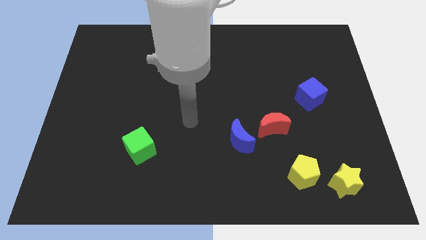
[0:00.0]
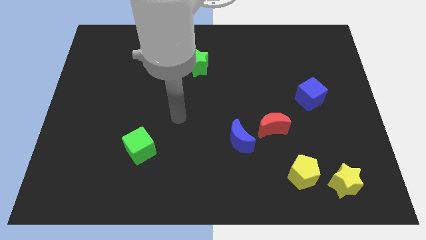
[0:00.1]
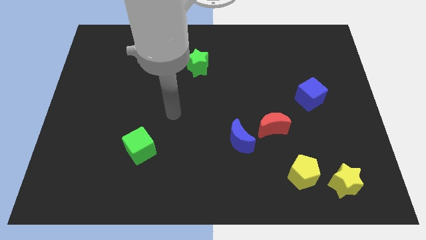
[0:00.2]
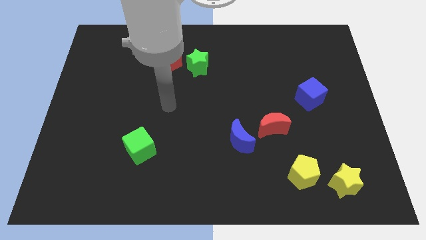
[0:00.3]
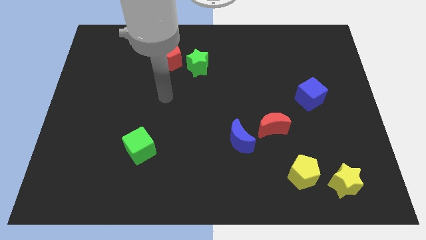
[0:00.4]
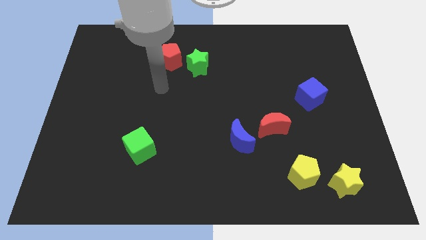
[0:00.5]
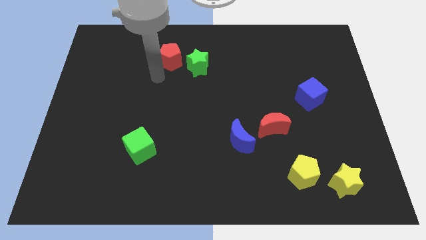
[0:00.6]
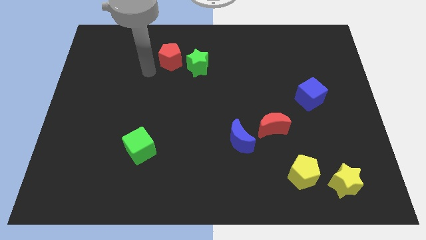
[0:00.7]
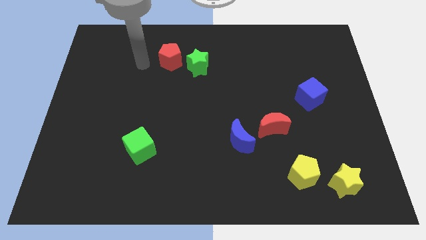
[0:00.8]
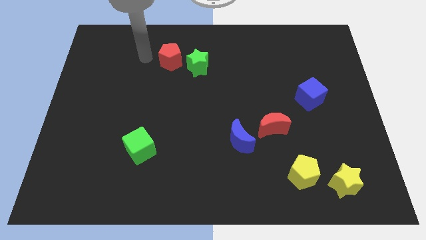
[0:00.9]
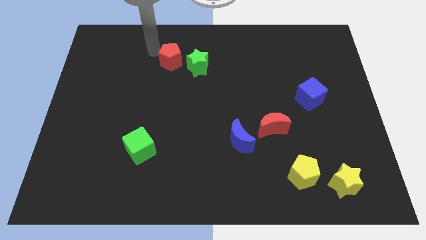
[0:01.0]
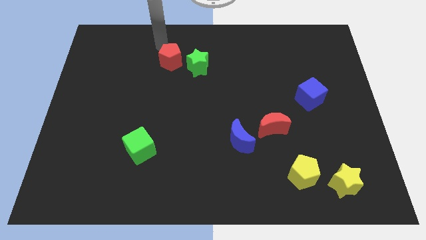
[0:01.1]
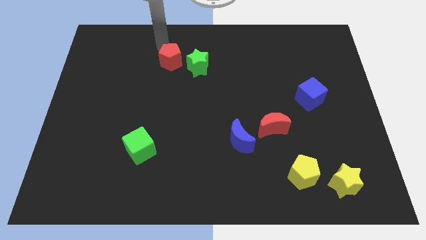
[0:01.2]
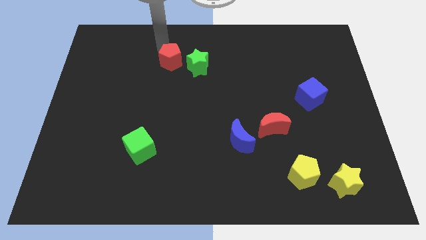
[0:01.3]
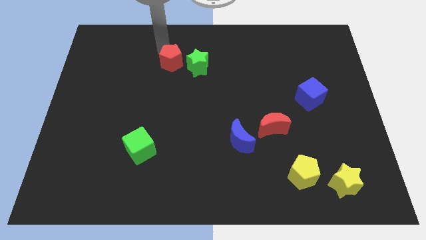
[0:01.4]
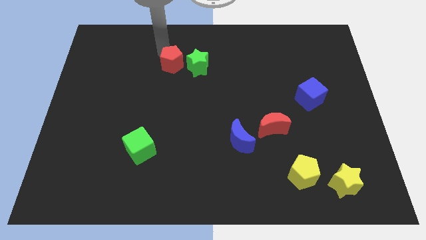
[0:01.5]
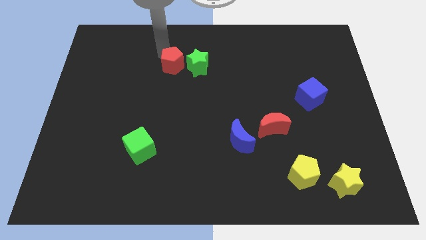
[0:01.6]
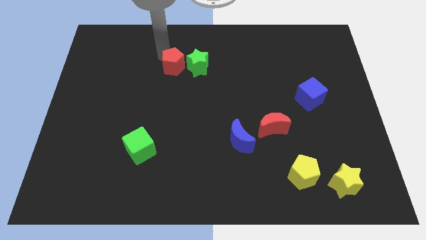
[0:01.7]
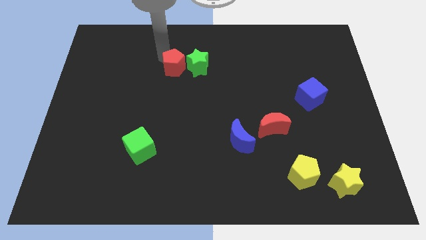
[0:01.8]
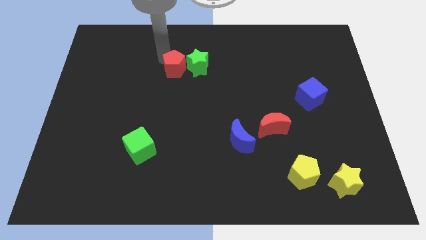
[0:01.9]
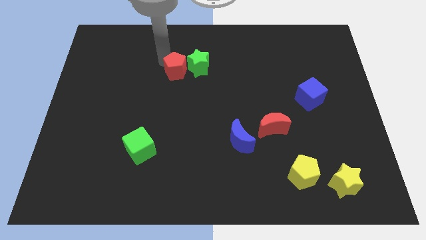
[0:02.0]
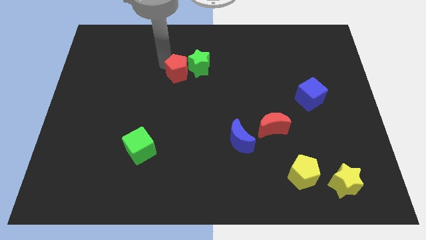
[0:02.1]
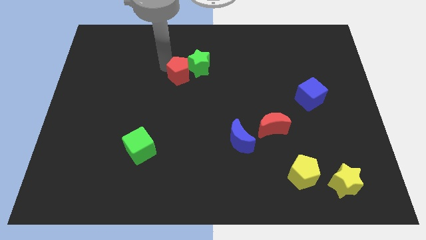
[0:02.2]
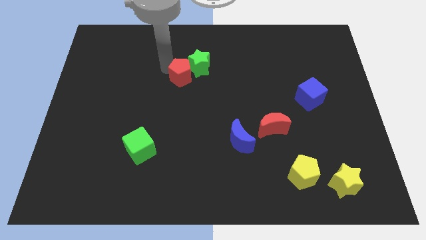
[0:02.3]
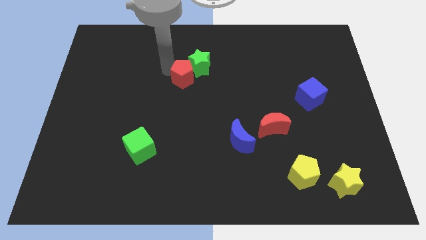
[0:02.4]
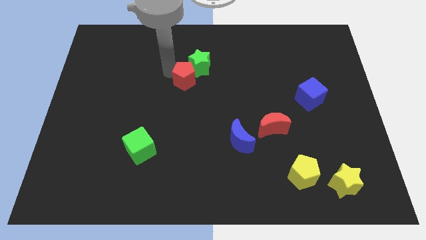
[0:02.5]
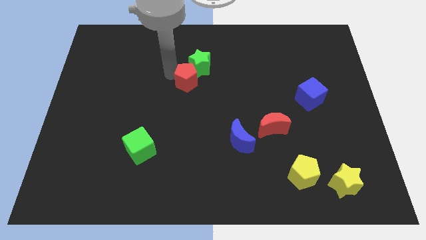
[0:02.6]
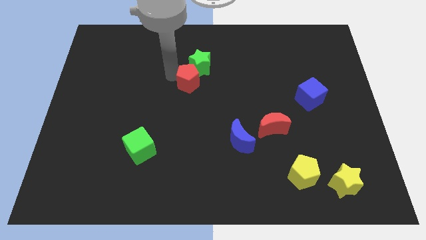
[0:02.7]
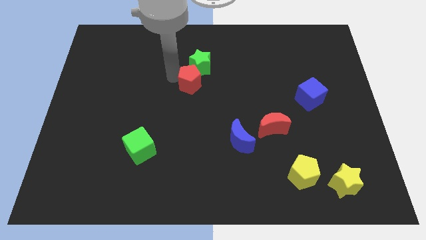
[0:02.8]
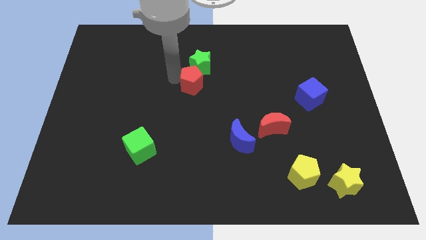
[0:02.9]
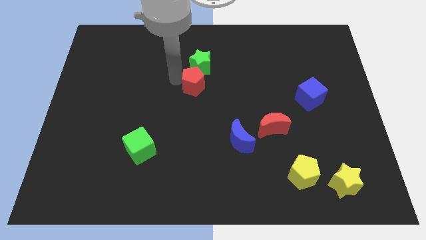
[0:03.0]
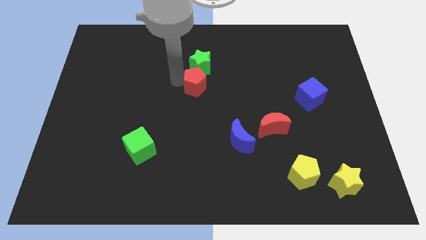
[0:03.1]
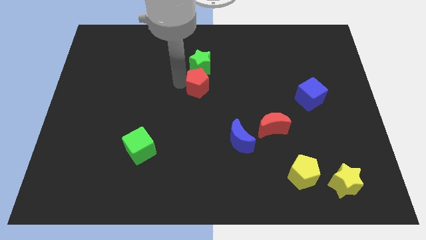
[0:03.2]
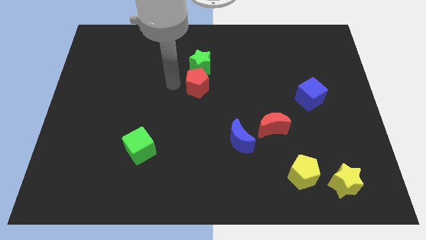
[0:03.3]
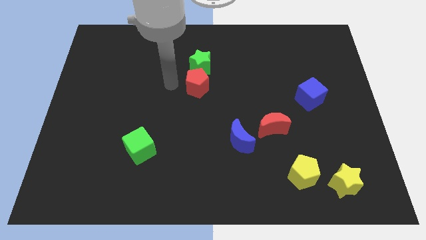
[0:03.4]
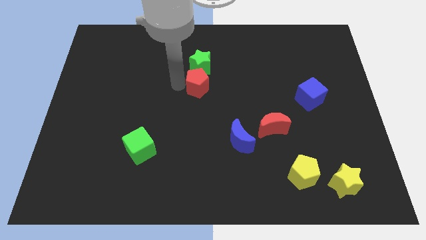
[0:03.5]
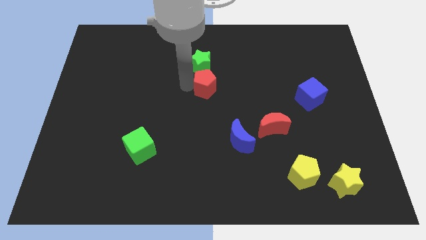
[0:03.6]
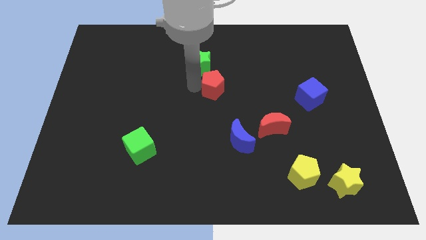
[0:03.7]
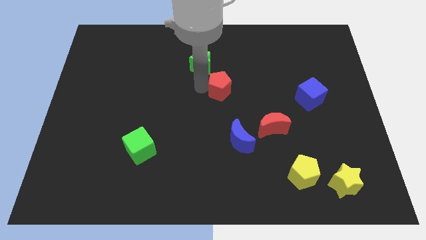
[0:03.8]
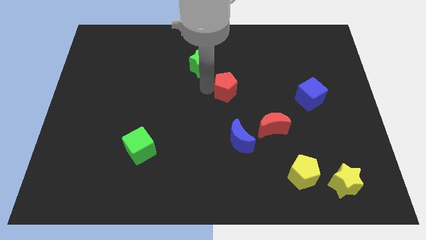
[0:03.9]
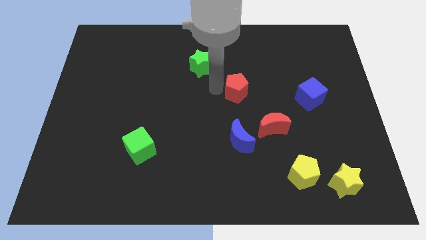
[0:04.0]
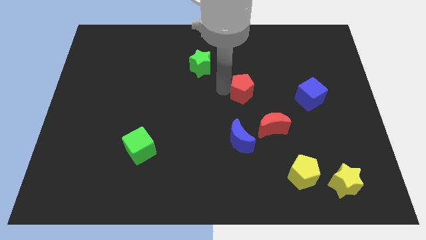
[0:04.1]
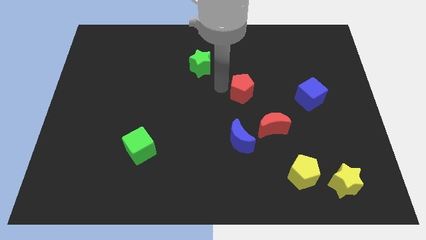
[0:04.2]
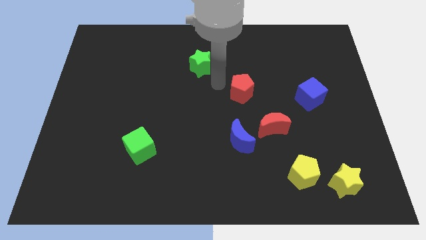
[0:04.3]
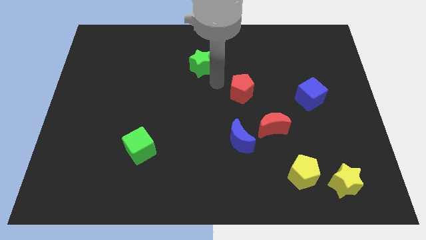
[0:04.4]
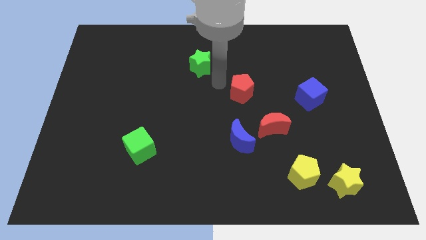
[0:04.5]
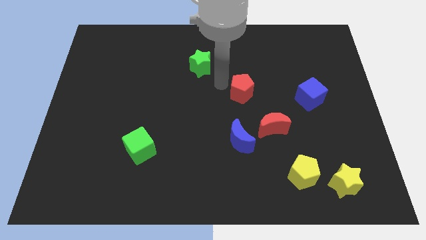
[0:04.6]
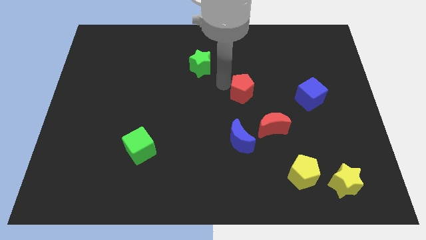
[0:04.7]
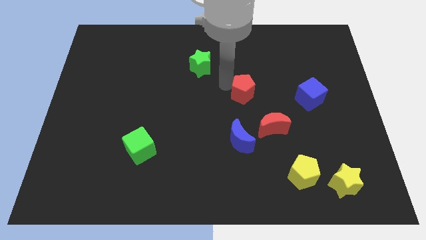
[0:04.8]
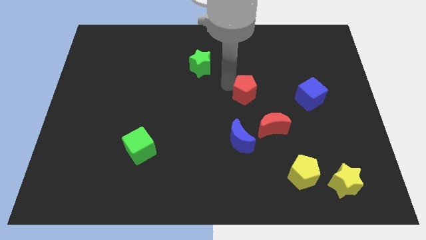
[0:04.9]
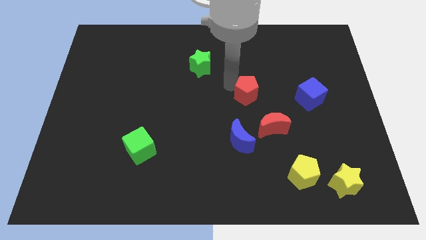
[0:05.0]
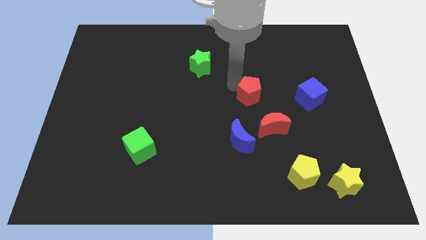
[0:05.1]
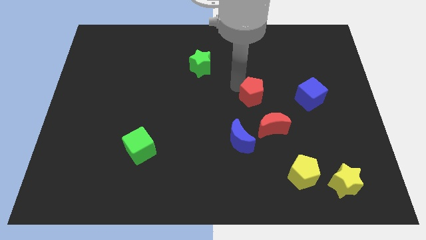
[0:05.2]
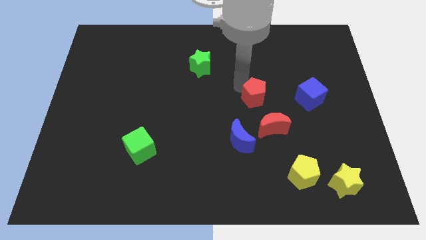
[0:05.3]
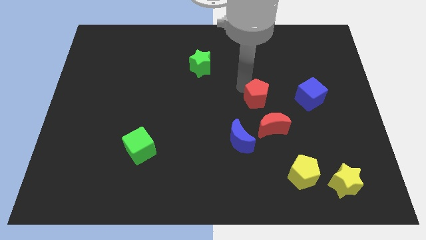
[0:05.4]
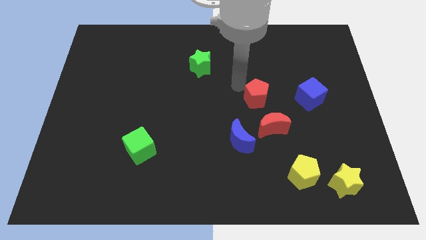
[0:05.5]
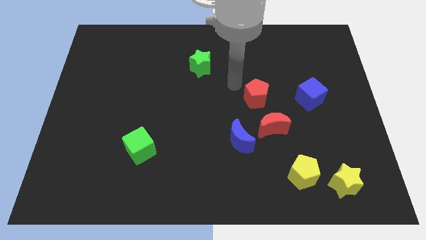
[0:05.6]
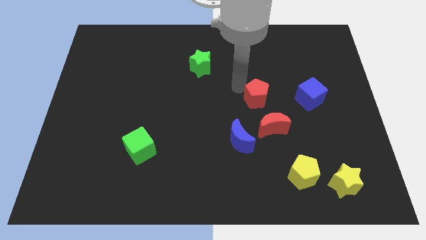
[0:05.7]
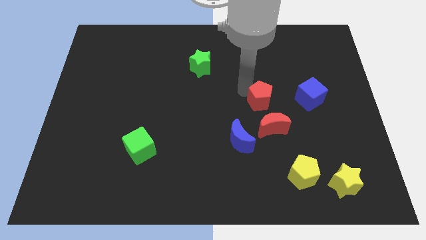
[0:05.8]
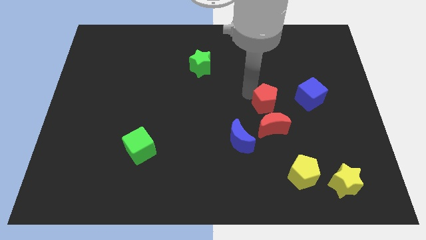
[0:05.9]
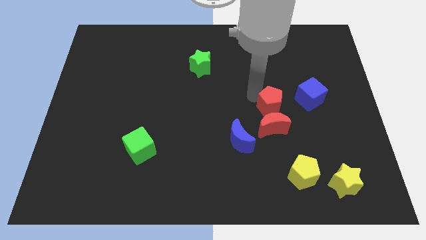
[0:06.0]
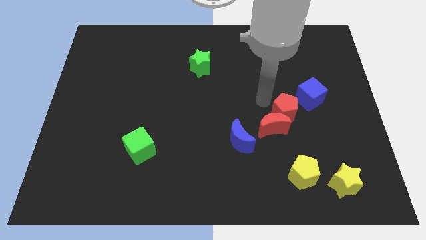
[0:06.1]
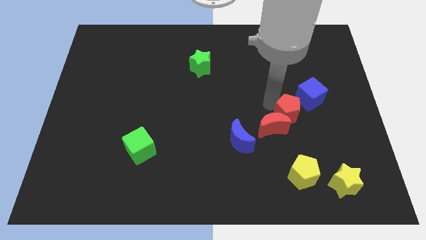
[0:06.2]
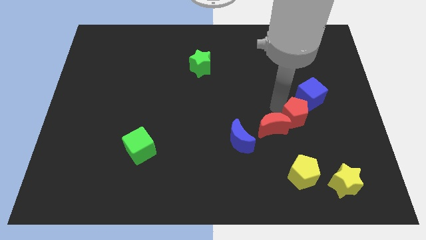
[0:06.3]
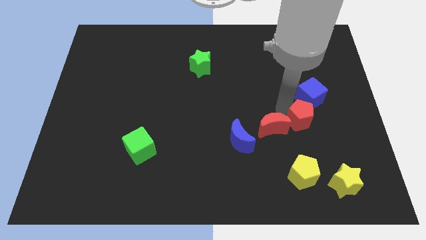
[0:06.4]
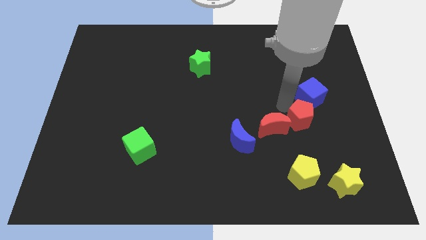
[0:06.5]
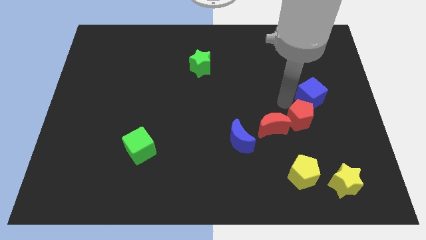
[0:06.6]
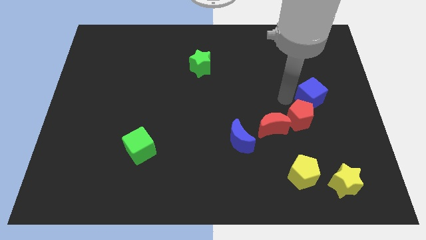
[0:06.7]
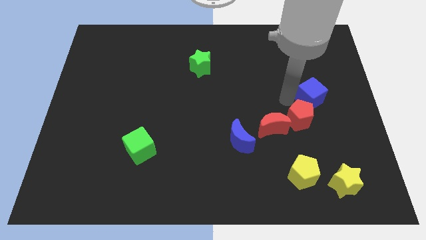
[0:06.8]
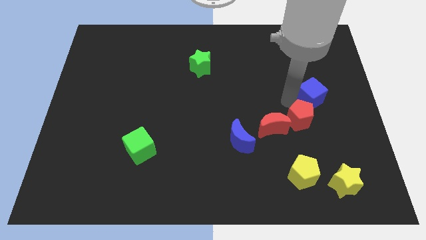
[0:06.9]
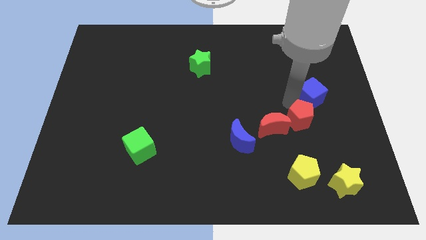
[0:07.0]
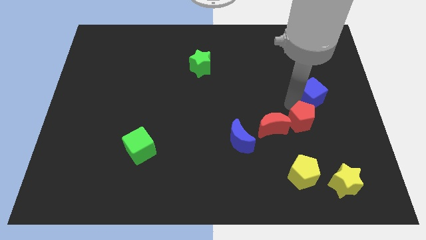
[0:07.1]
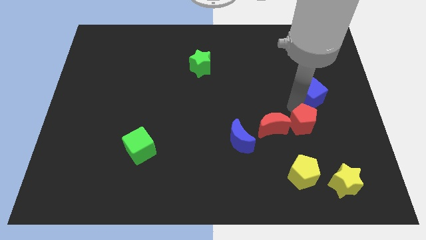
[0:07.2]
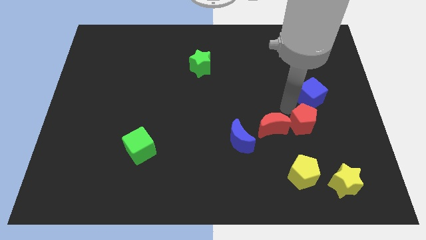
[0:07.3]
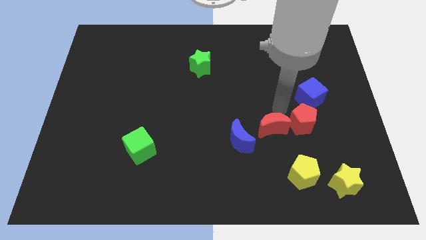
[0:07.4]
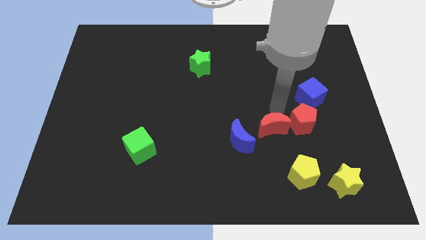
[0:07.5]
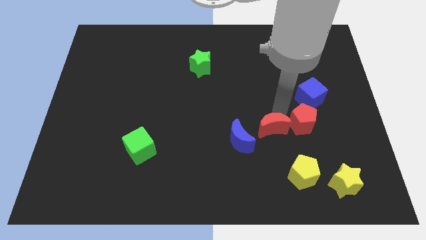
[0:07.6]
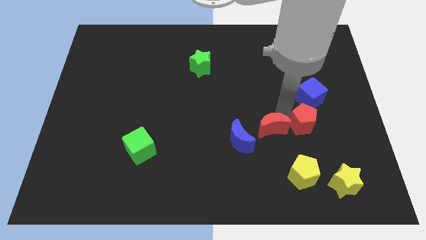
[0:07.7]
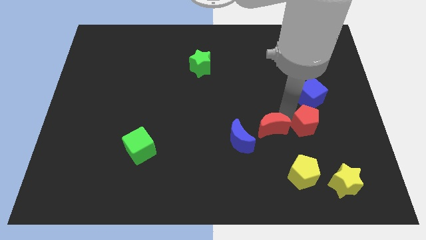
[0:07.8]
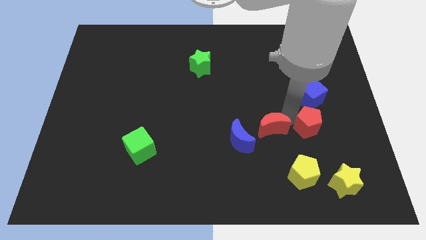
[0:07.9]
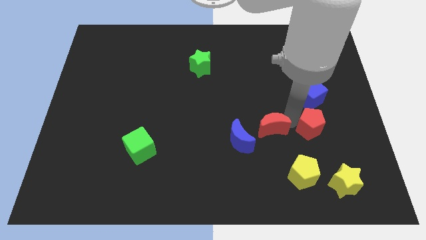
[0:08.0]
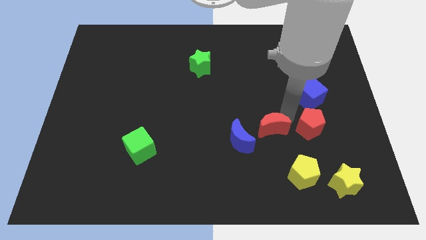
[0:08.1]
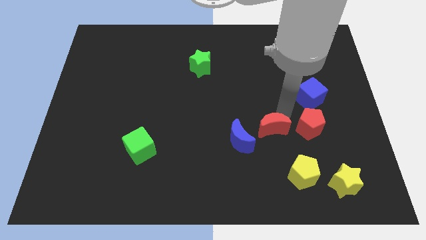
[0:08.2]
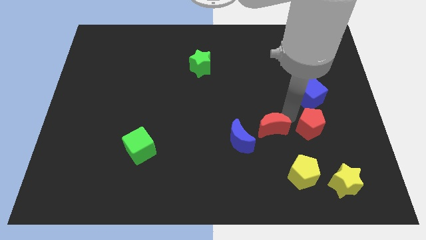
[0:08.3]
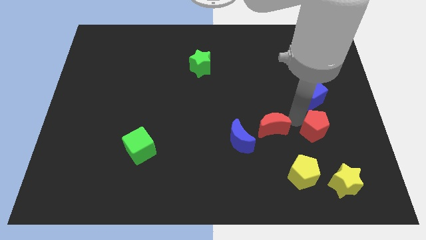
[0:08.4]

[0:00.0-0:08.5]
put the red pentagon above the yellow star
